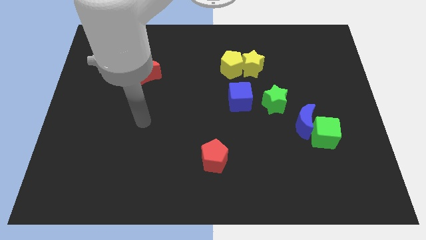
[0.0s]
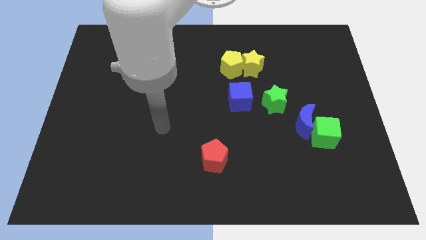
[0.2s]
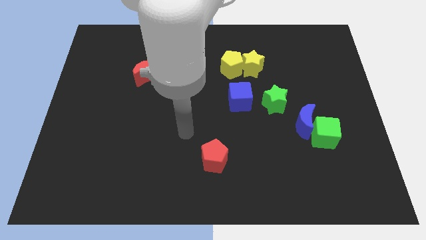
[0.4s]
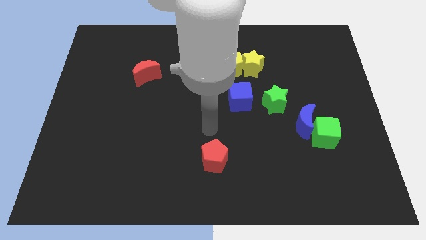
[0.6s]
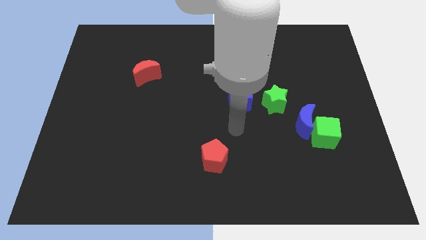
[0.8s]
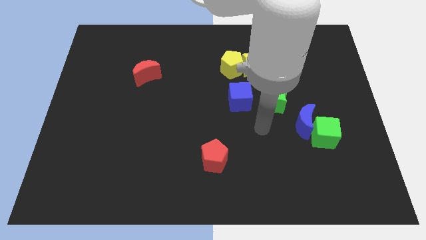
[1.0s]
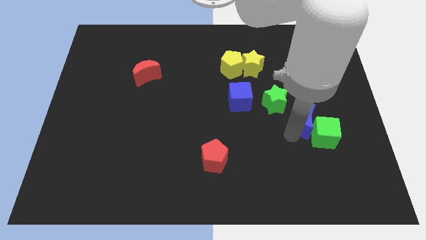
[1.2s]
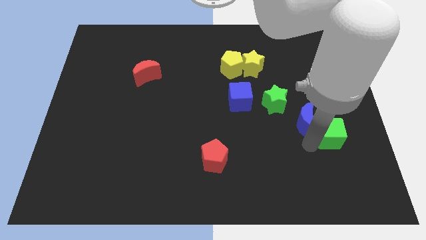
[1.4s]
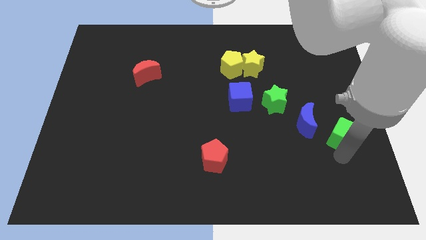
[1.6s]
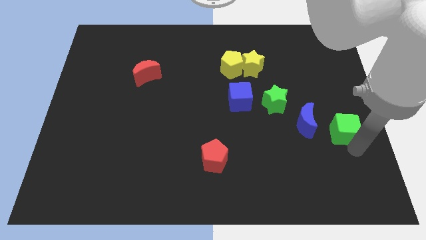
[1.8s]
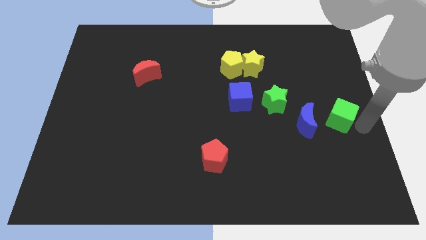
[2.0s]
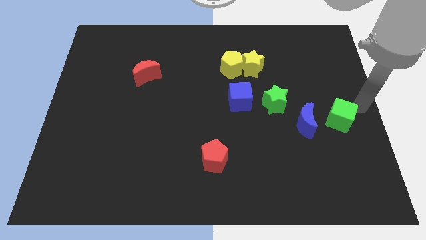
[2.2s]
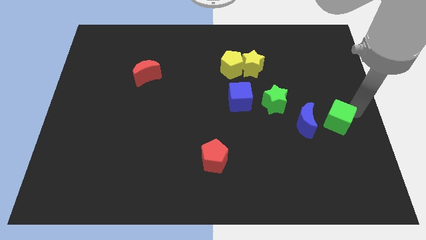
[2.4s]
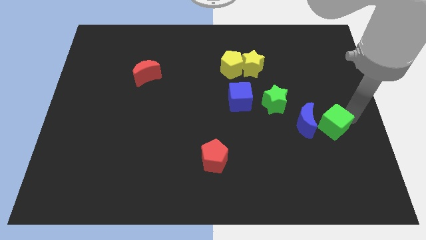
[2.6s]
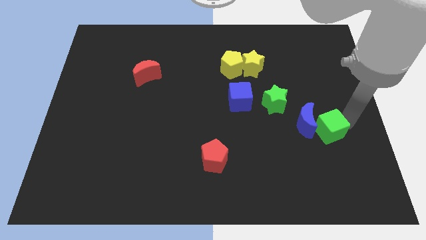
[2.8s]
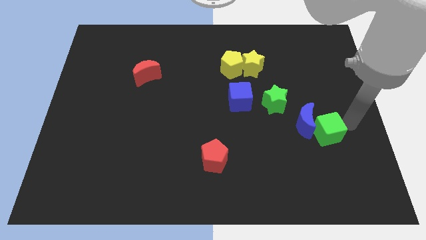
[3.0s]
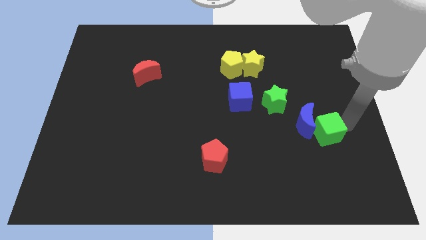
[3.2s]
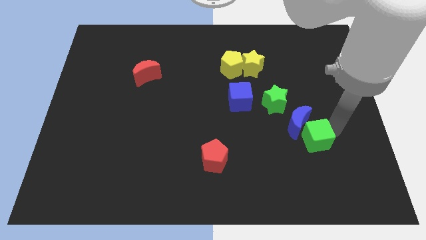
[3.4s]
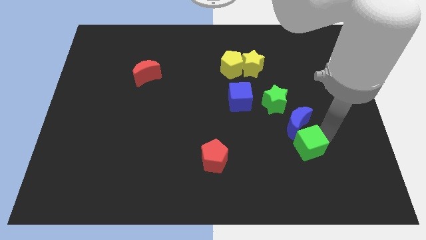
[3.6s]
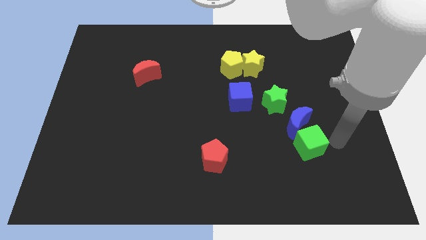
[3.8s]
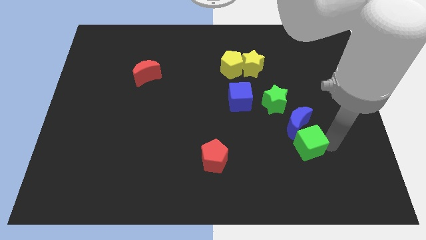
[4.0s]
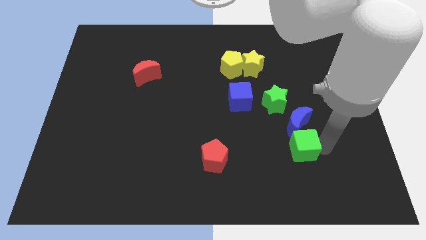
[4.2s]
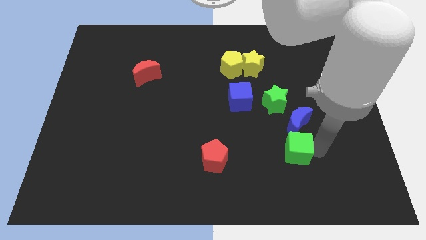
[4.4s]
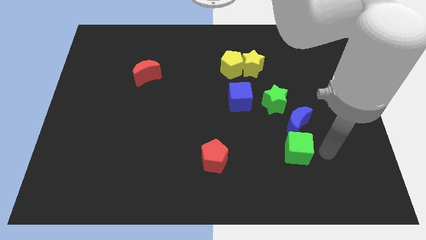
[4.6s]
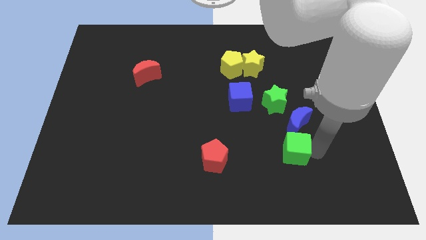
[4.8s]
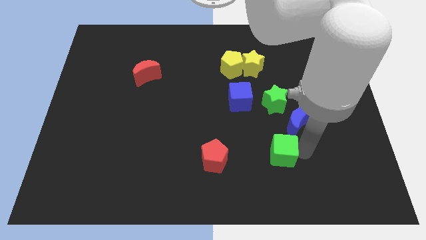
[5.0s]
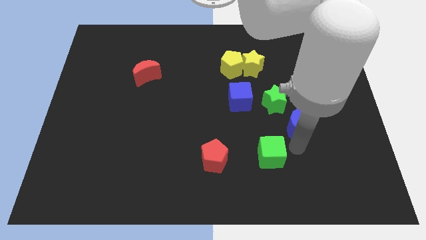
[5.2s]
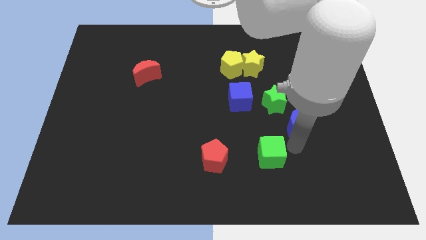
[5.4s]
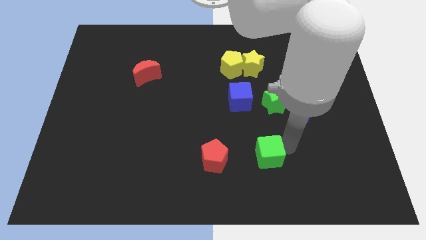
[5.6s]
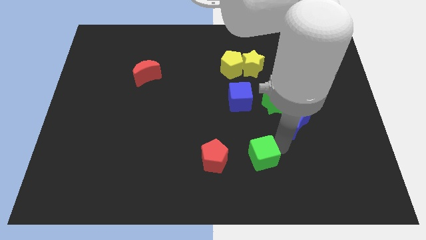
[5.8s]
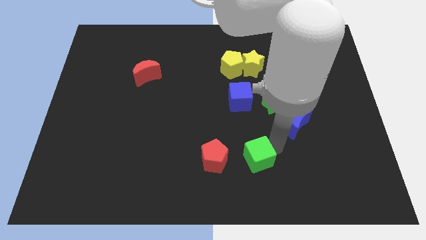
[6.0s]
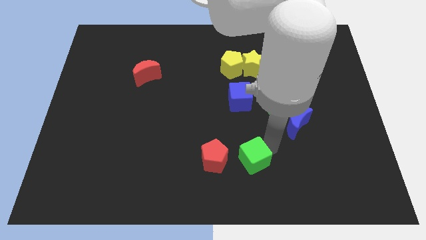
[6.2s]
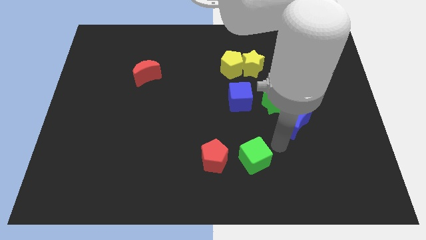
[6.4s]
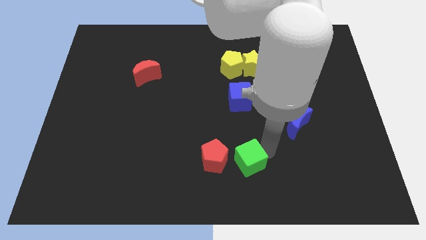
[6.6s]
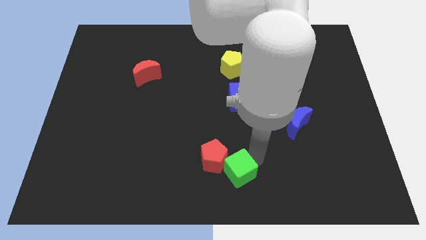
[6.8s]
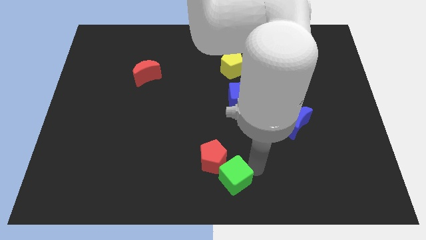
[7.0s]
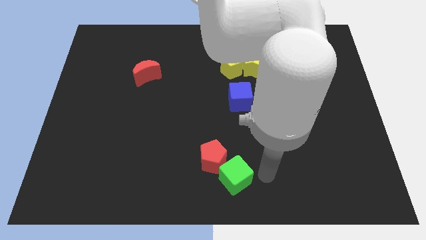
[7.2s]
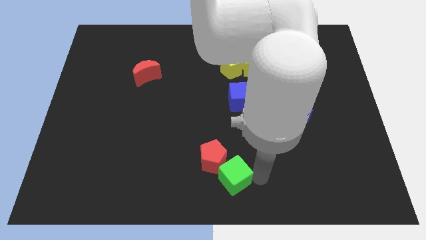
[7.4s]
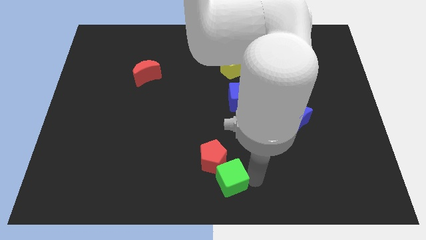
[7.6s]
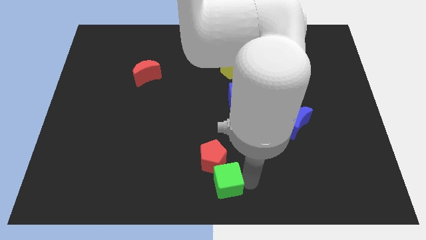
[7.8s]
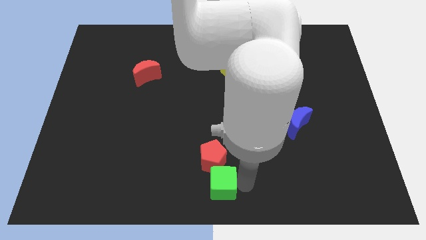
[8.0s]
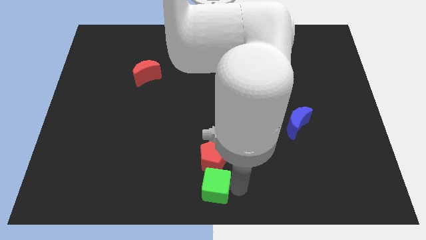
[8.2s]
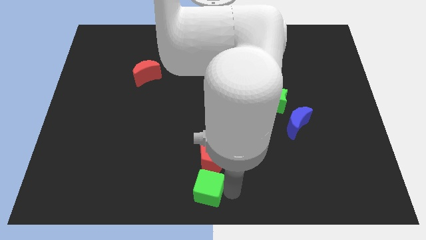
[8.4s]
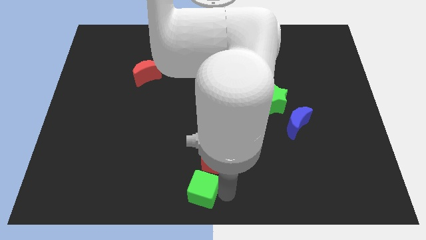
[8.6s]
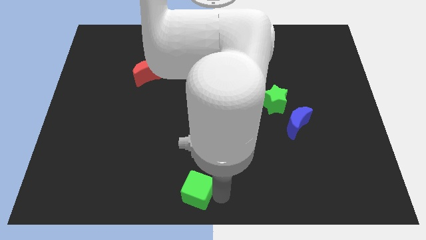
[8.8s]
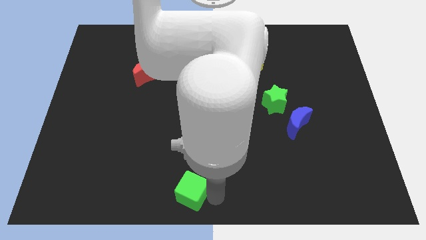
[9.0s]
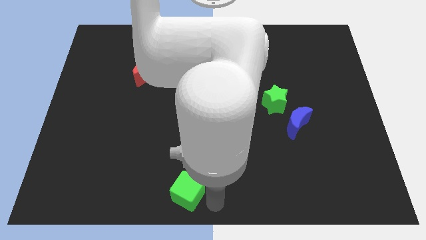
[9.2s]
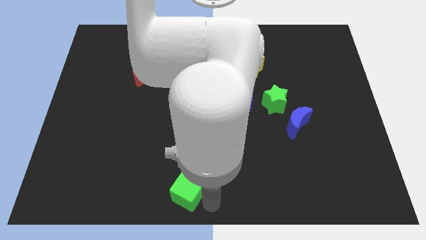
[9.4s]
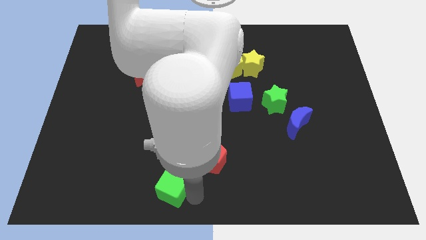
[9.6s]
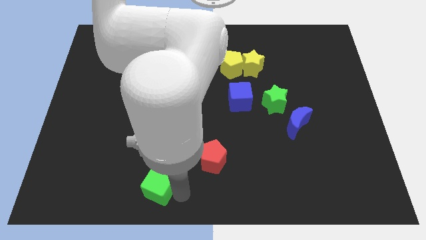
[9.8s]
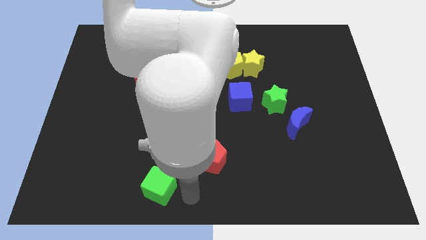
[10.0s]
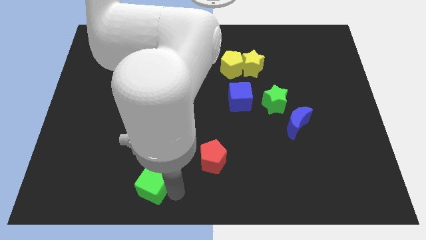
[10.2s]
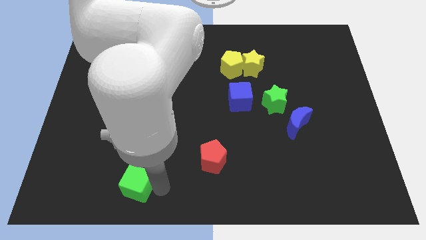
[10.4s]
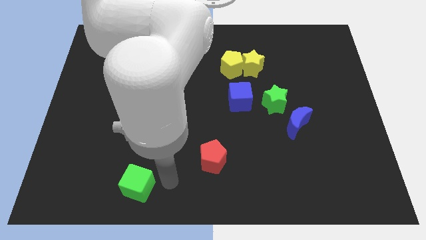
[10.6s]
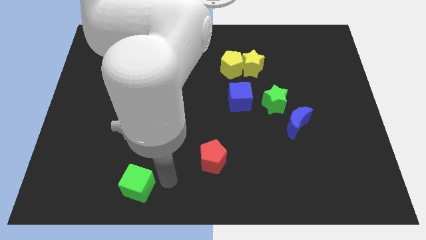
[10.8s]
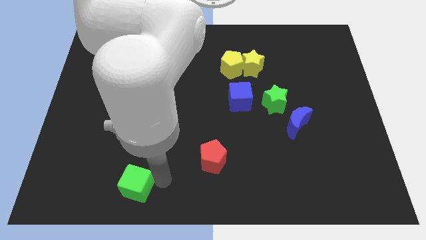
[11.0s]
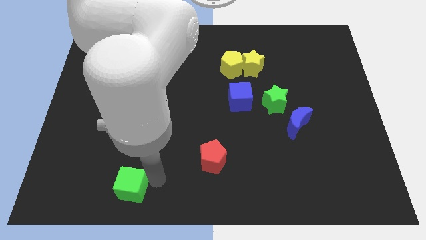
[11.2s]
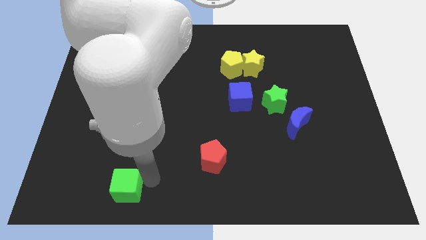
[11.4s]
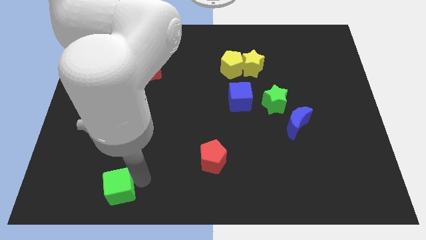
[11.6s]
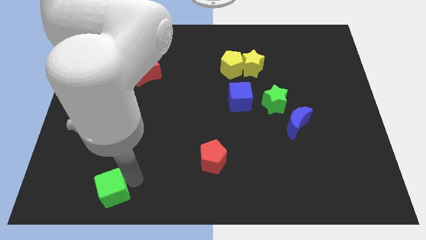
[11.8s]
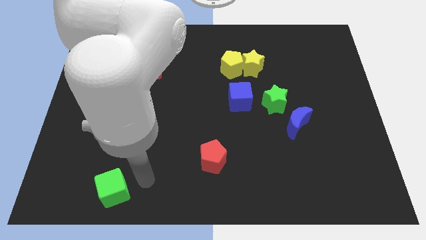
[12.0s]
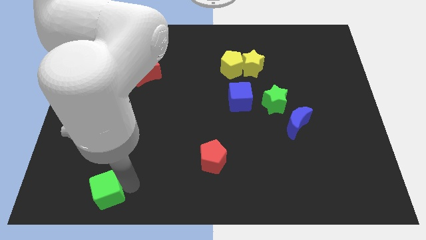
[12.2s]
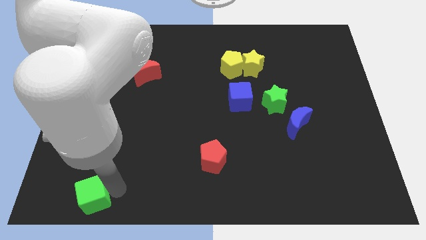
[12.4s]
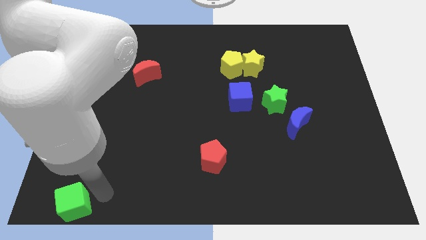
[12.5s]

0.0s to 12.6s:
push the green cube to the bottom left
